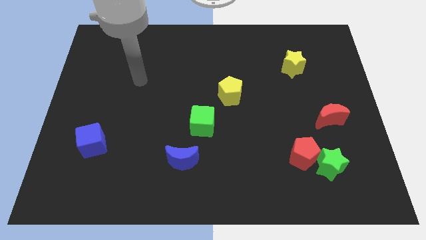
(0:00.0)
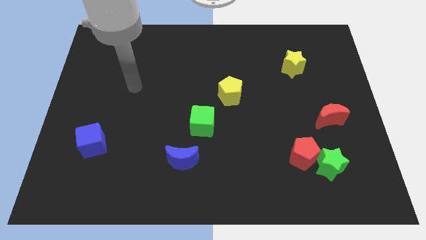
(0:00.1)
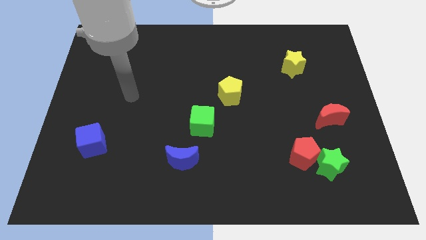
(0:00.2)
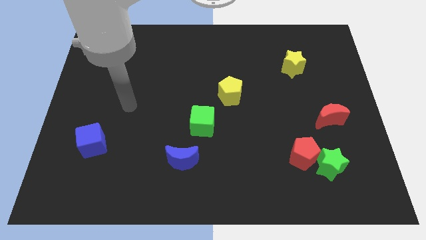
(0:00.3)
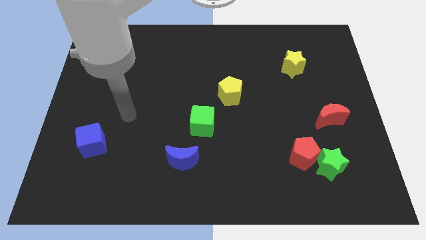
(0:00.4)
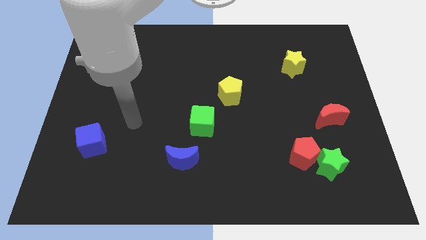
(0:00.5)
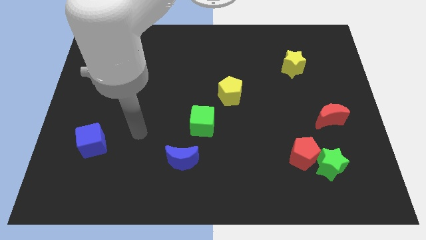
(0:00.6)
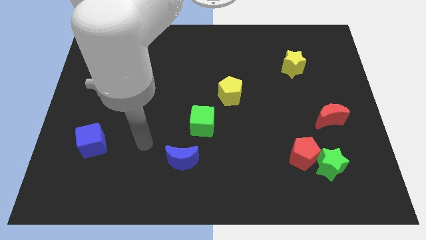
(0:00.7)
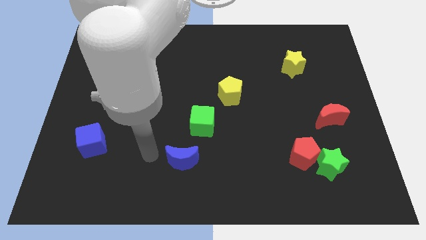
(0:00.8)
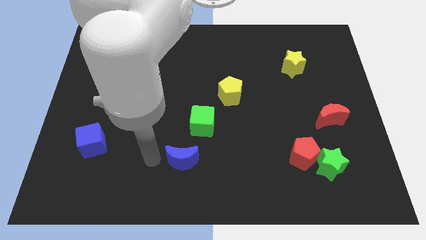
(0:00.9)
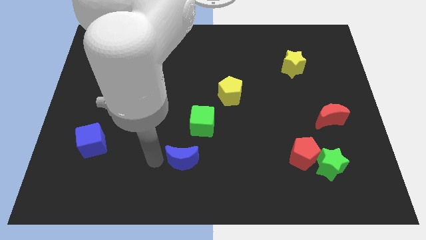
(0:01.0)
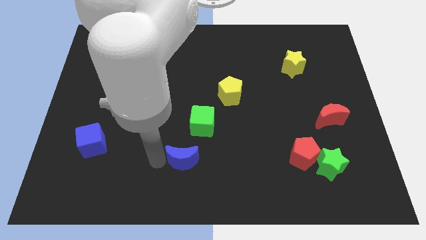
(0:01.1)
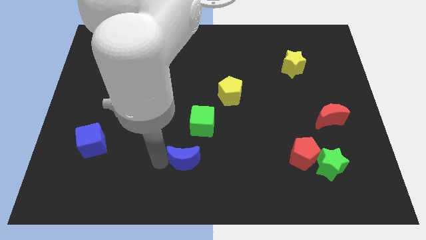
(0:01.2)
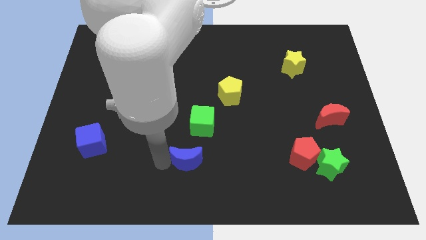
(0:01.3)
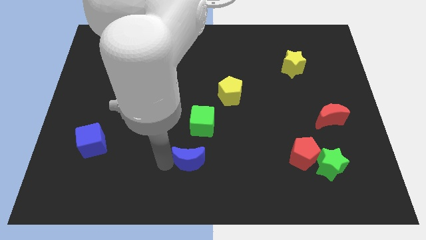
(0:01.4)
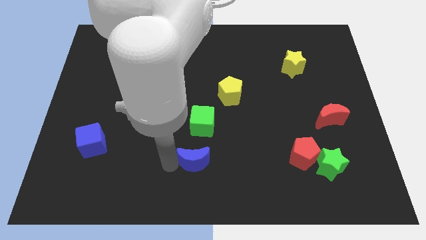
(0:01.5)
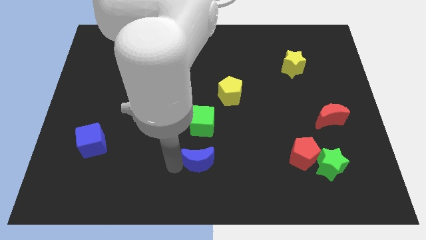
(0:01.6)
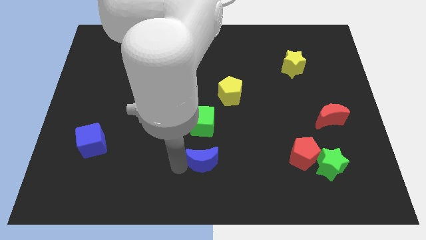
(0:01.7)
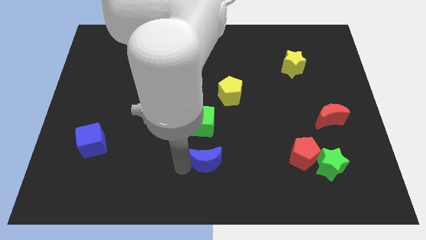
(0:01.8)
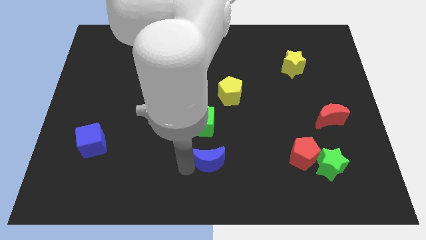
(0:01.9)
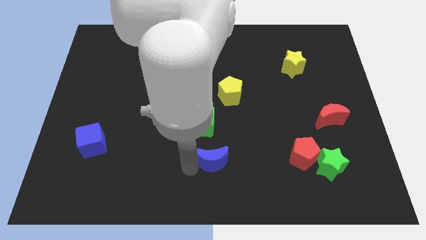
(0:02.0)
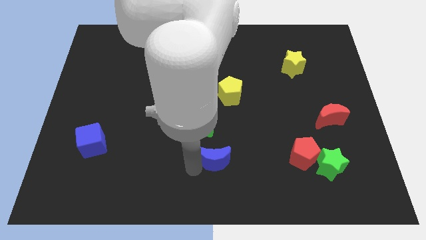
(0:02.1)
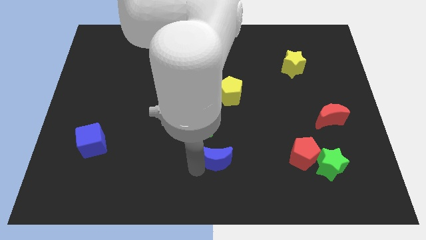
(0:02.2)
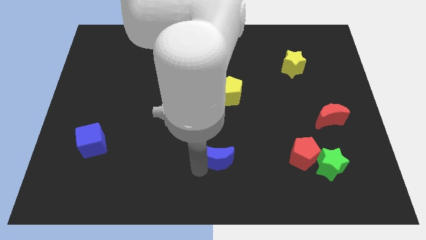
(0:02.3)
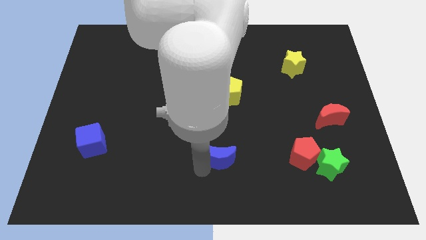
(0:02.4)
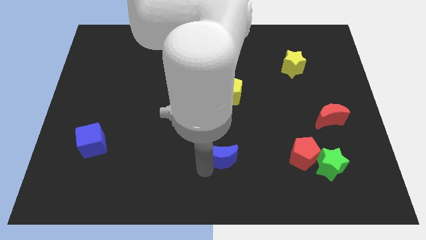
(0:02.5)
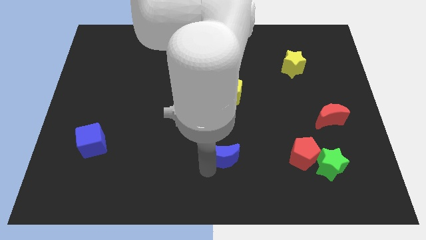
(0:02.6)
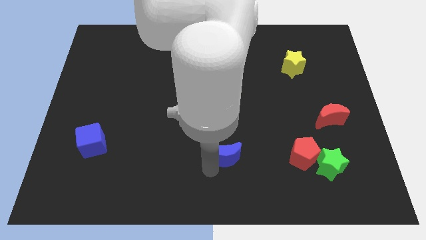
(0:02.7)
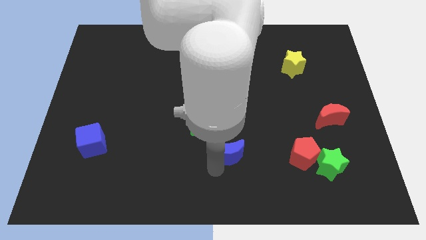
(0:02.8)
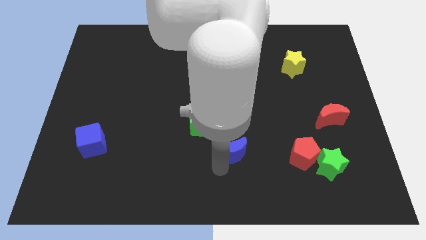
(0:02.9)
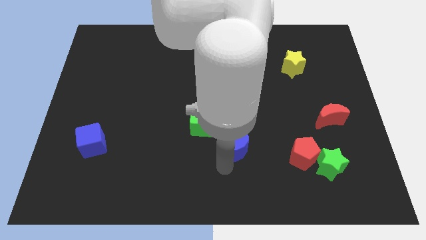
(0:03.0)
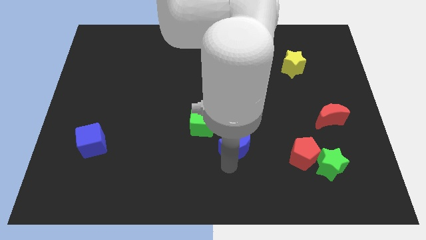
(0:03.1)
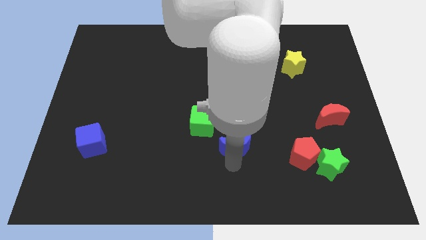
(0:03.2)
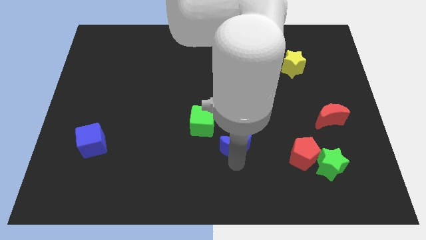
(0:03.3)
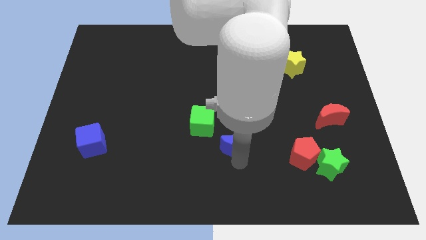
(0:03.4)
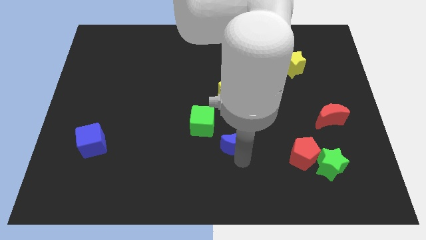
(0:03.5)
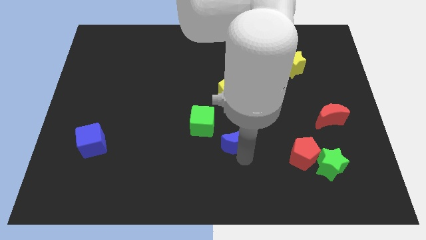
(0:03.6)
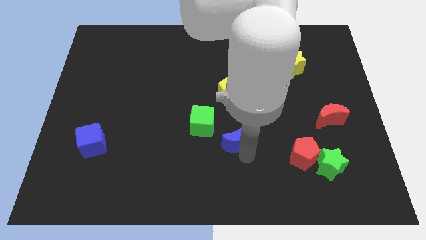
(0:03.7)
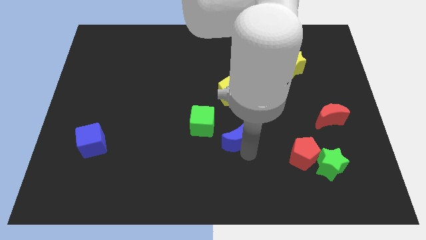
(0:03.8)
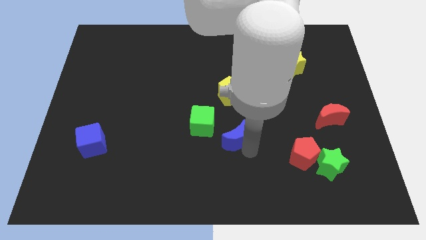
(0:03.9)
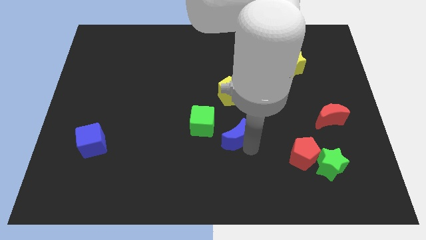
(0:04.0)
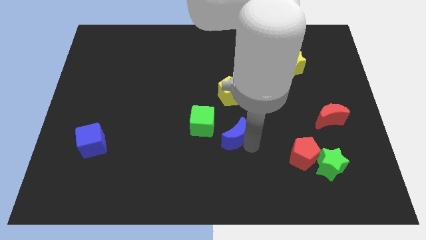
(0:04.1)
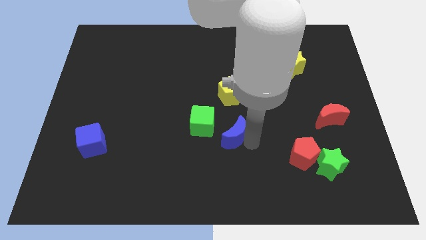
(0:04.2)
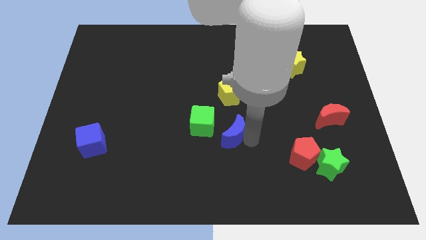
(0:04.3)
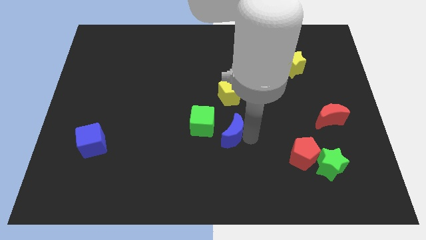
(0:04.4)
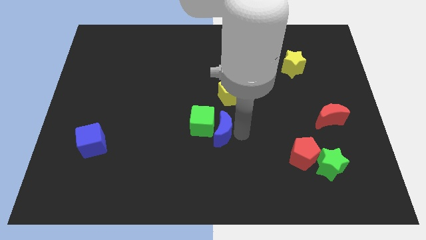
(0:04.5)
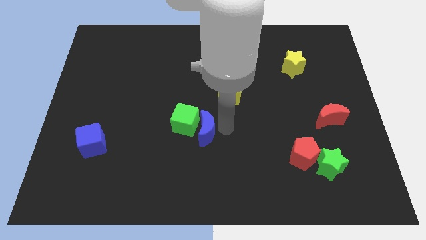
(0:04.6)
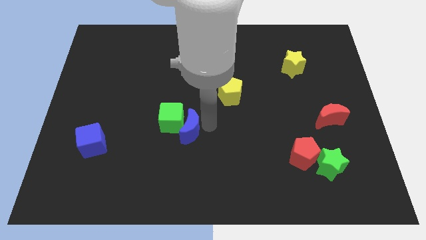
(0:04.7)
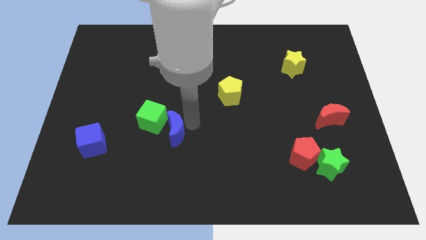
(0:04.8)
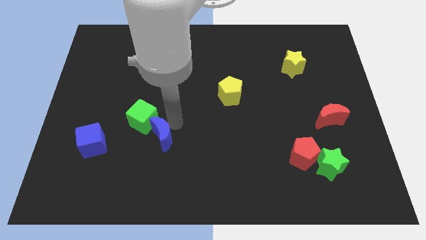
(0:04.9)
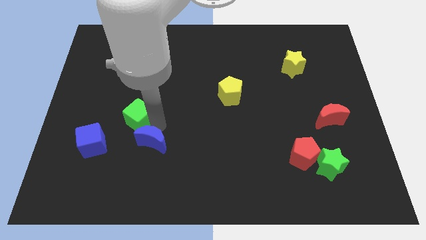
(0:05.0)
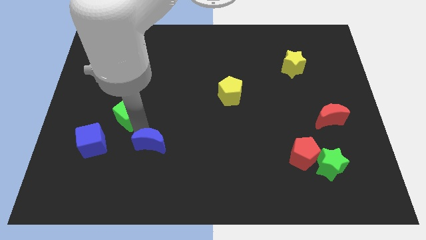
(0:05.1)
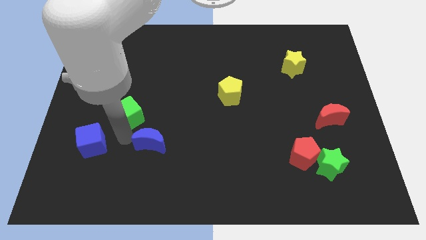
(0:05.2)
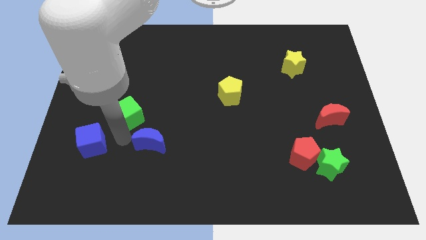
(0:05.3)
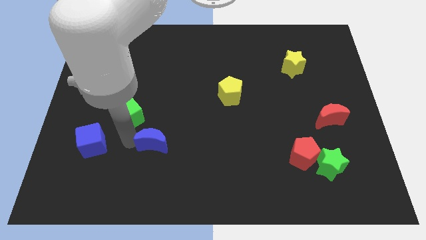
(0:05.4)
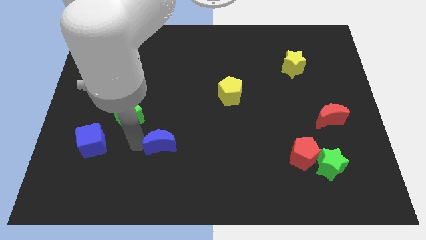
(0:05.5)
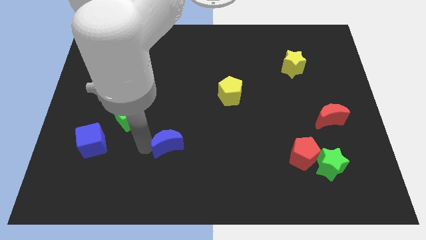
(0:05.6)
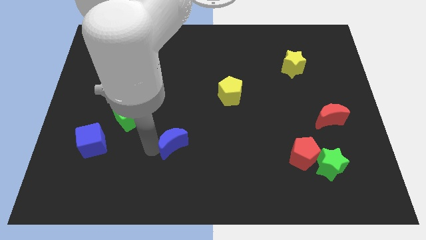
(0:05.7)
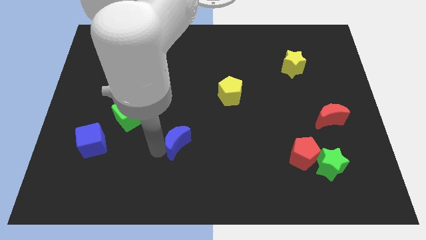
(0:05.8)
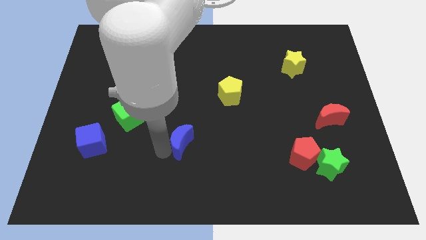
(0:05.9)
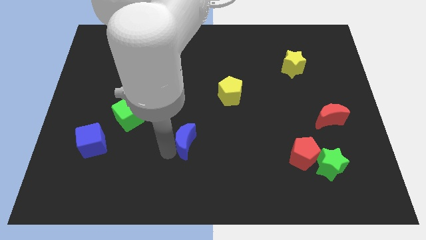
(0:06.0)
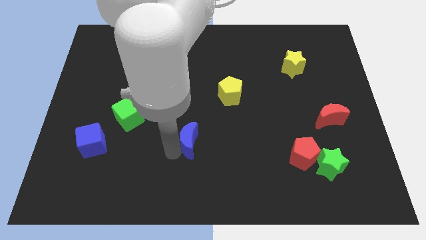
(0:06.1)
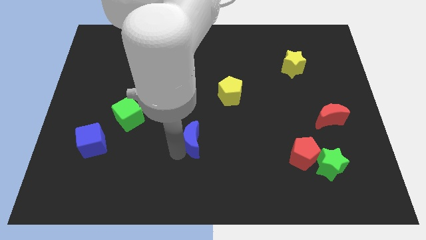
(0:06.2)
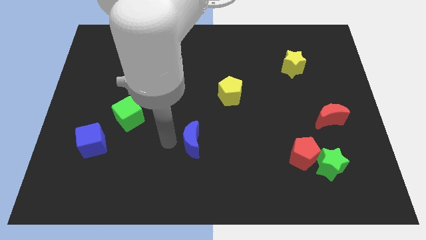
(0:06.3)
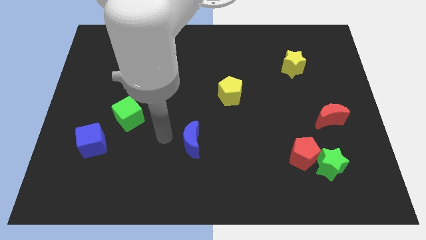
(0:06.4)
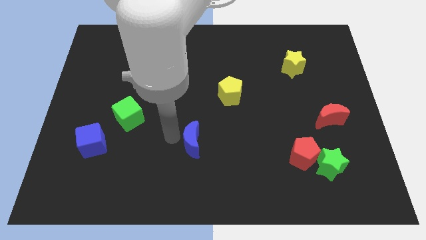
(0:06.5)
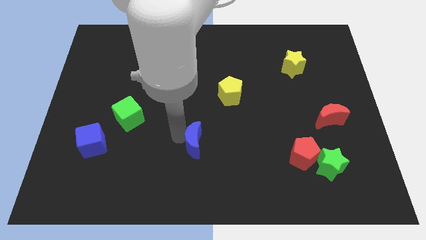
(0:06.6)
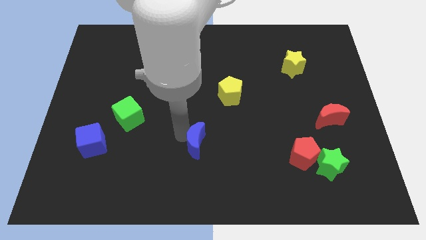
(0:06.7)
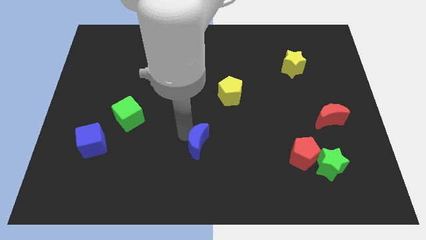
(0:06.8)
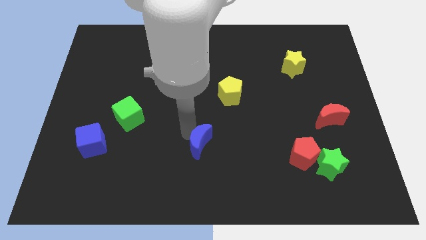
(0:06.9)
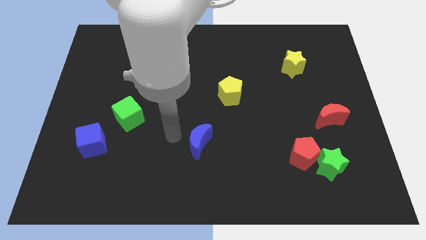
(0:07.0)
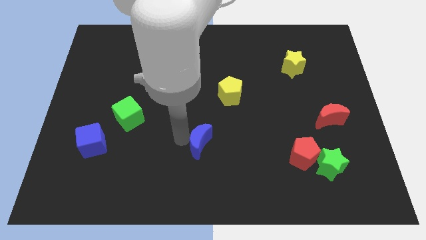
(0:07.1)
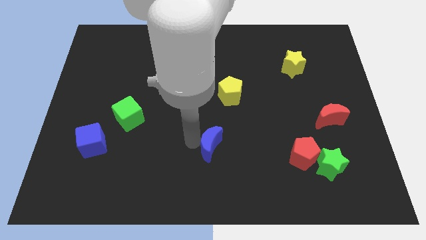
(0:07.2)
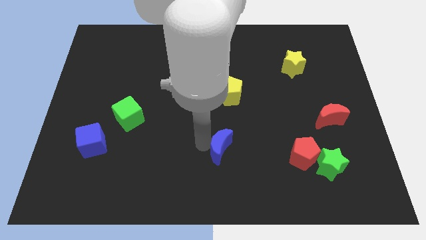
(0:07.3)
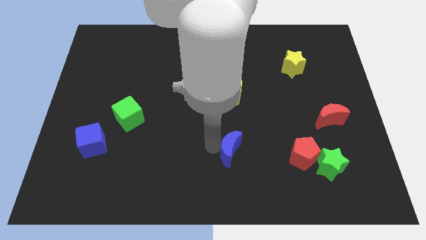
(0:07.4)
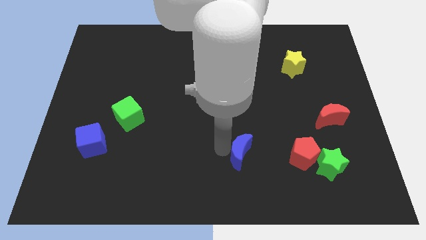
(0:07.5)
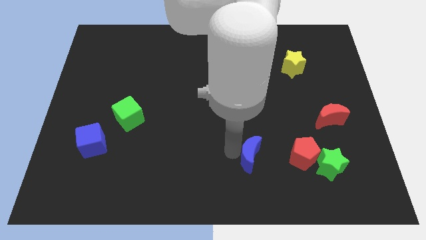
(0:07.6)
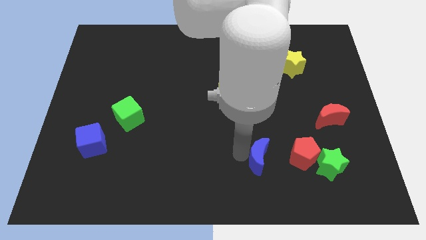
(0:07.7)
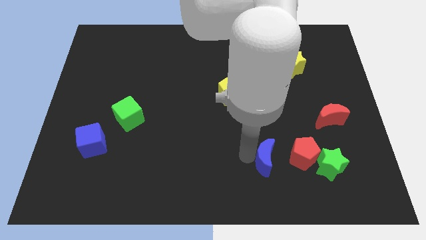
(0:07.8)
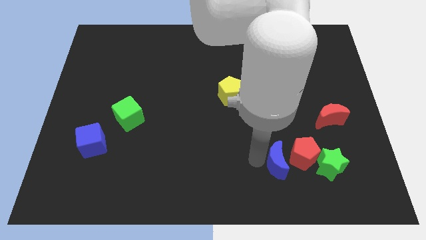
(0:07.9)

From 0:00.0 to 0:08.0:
put the blue moon next to the red pentagon

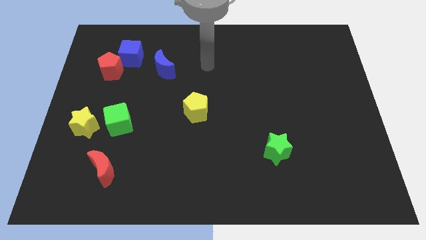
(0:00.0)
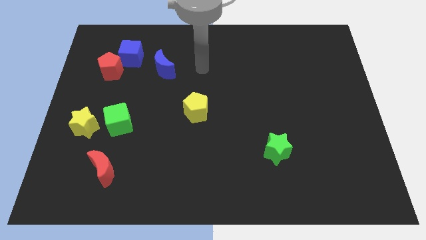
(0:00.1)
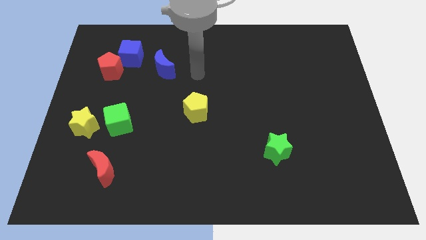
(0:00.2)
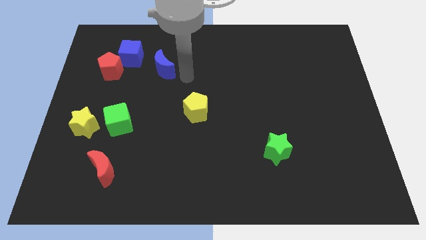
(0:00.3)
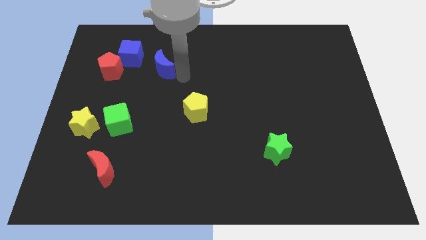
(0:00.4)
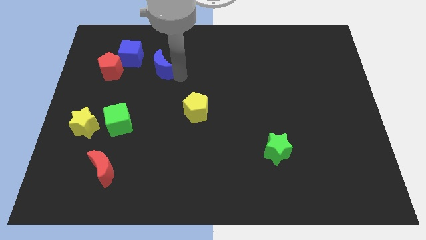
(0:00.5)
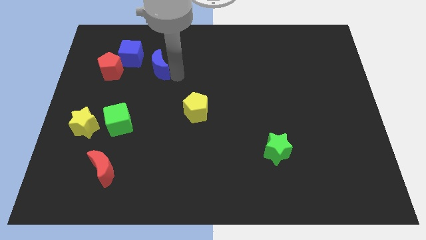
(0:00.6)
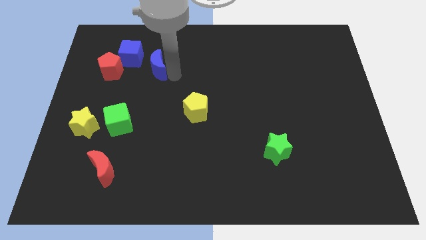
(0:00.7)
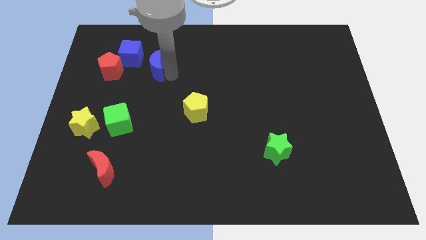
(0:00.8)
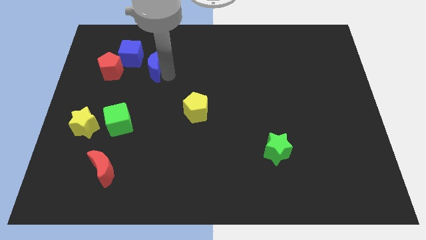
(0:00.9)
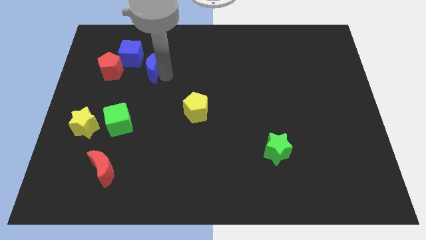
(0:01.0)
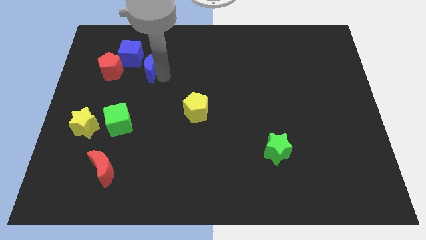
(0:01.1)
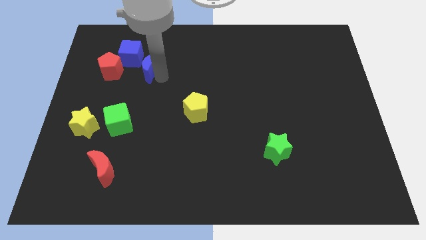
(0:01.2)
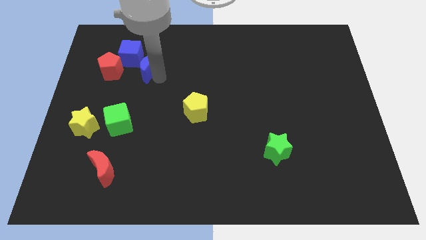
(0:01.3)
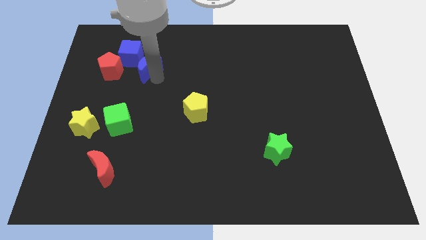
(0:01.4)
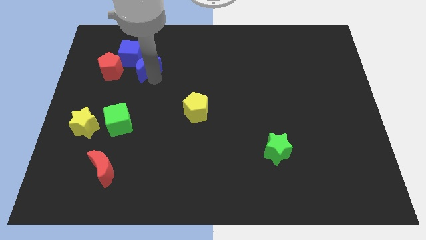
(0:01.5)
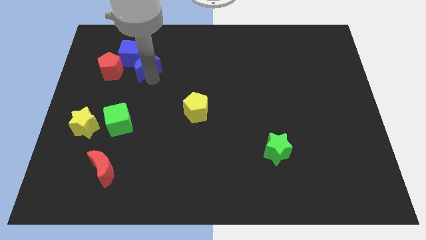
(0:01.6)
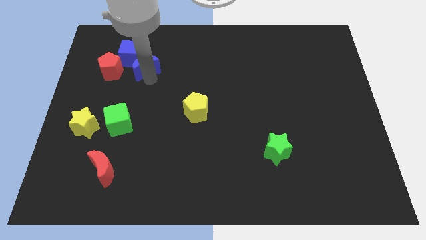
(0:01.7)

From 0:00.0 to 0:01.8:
put the blue moon close to the blue cube
